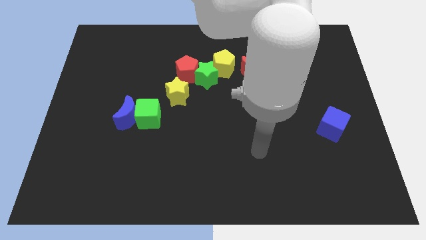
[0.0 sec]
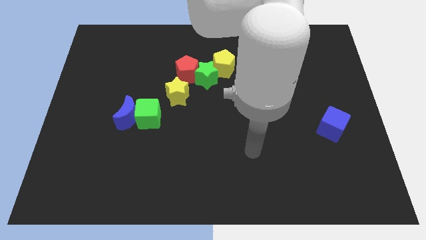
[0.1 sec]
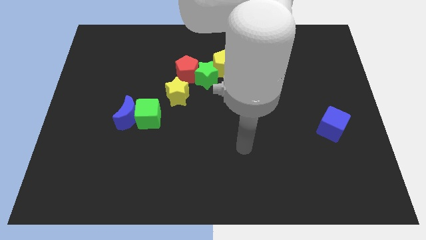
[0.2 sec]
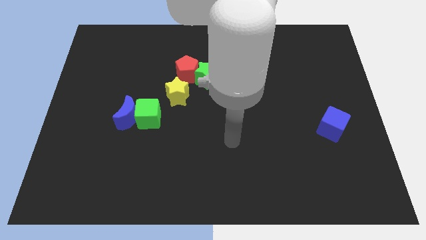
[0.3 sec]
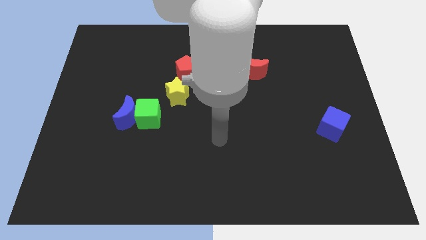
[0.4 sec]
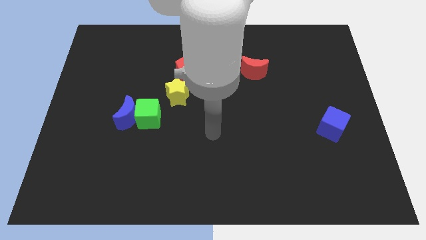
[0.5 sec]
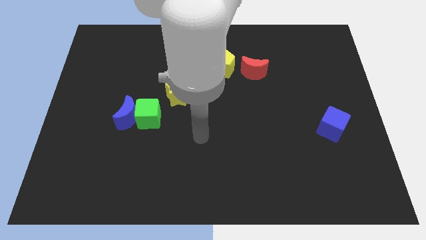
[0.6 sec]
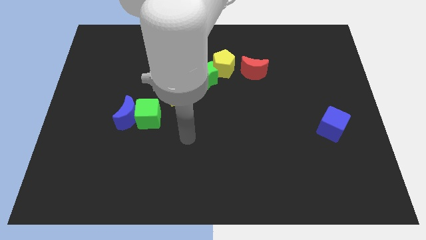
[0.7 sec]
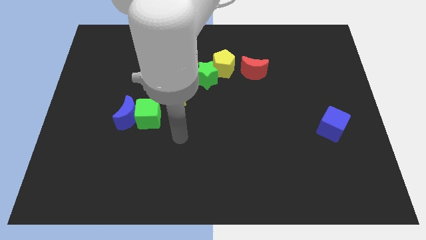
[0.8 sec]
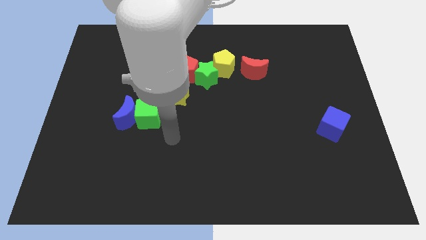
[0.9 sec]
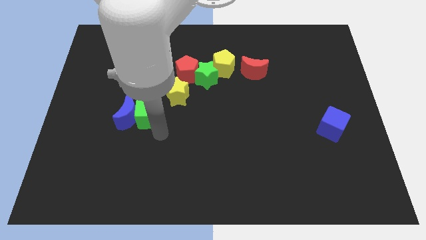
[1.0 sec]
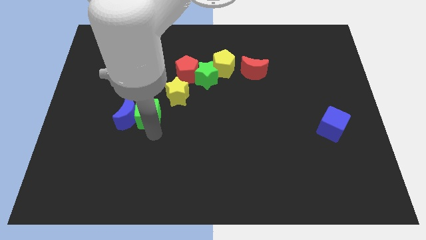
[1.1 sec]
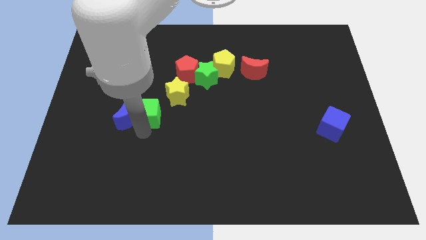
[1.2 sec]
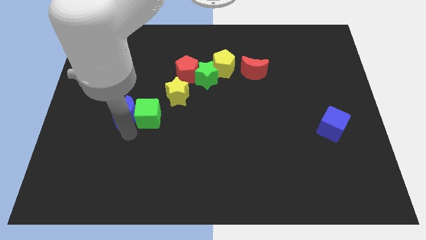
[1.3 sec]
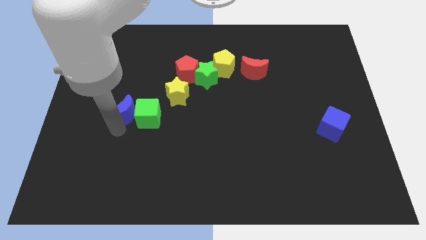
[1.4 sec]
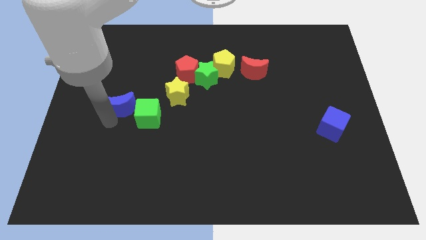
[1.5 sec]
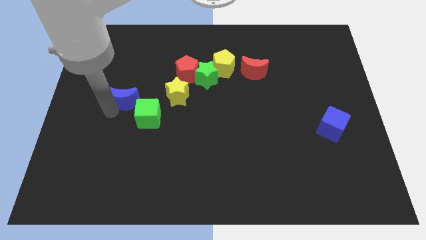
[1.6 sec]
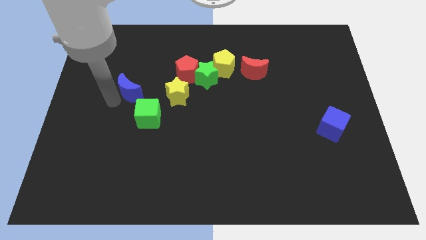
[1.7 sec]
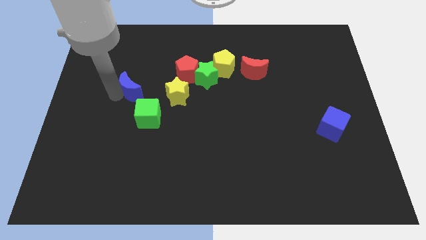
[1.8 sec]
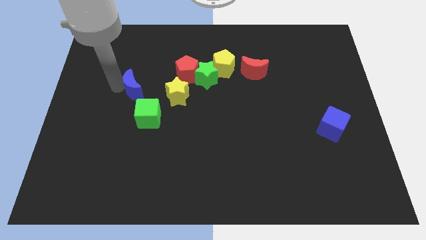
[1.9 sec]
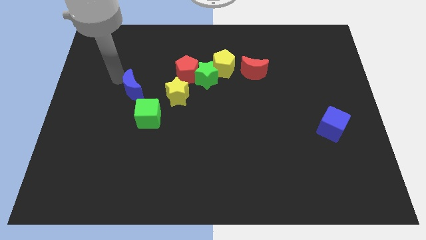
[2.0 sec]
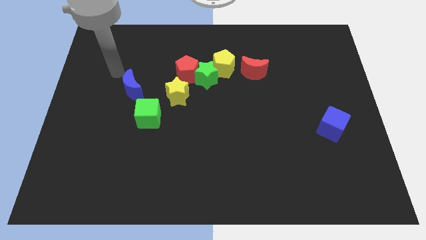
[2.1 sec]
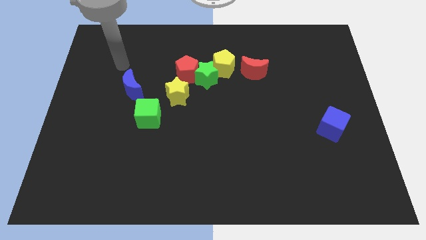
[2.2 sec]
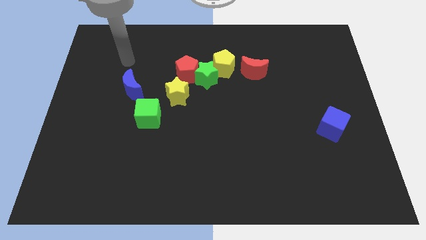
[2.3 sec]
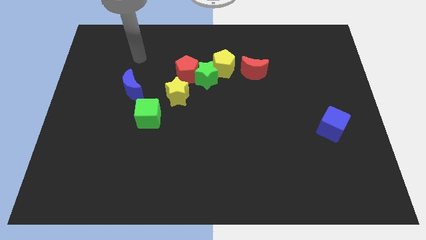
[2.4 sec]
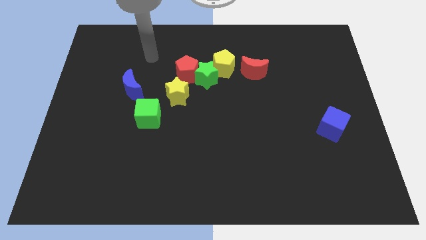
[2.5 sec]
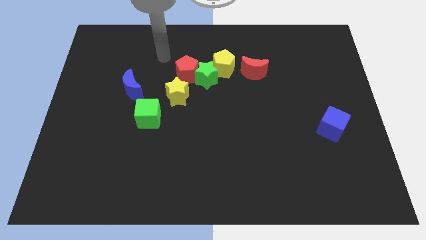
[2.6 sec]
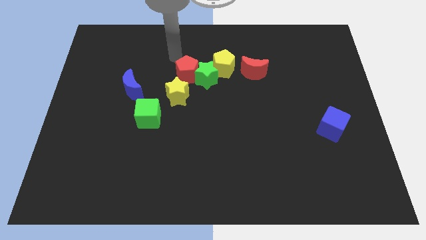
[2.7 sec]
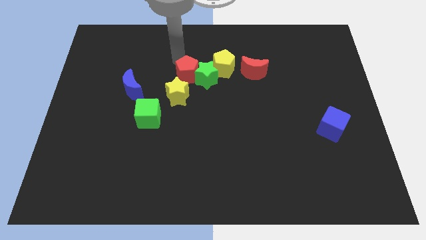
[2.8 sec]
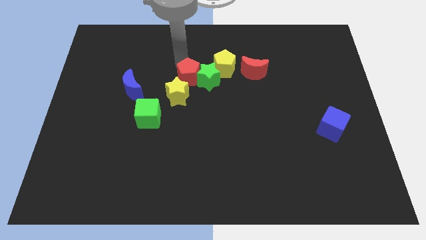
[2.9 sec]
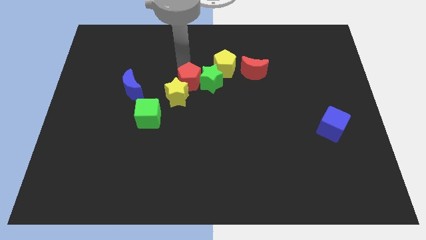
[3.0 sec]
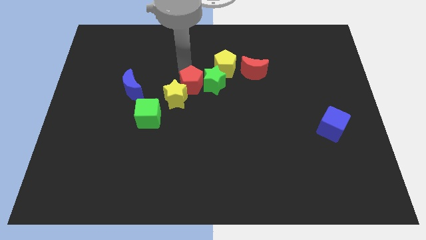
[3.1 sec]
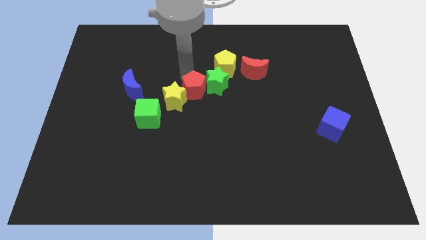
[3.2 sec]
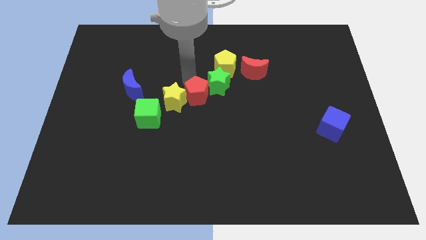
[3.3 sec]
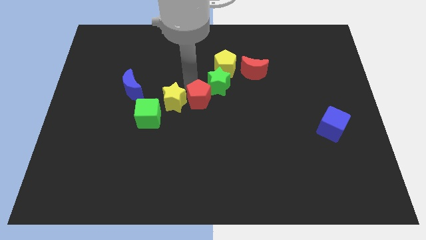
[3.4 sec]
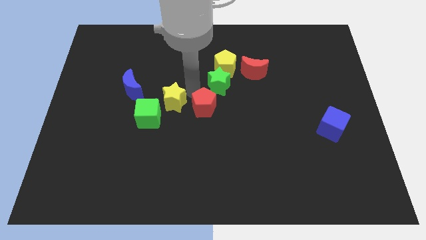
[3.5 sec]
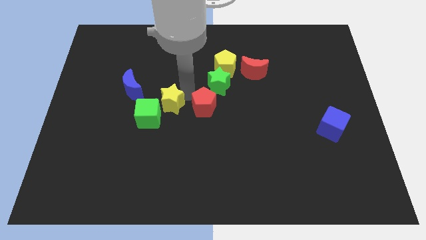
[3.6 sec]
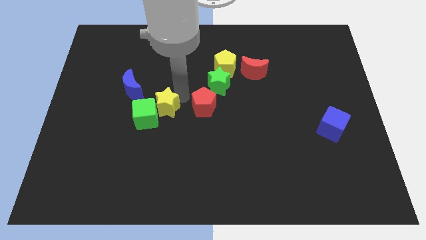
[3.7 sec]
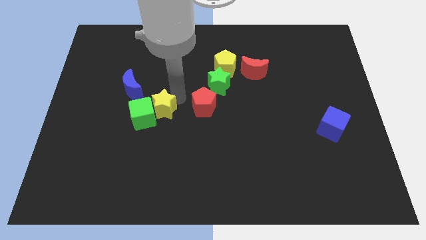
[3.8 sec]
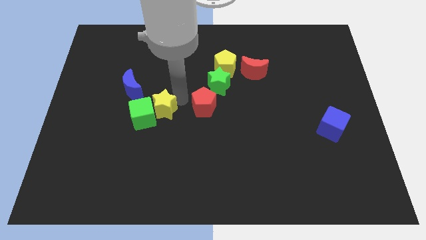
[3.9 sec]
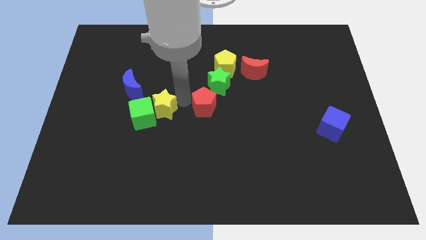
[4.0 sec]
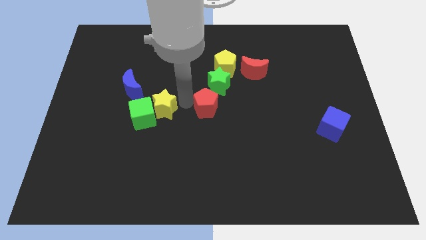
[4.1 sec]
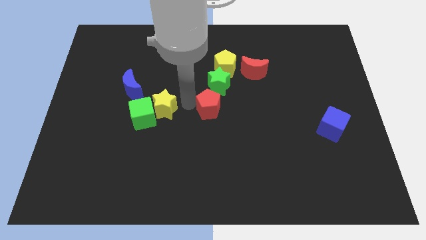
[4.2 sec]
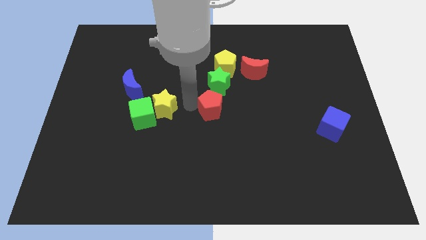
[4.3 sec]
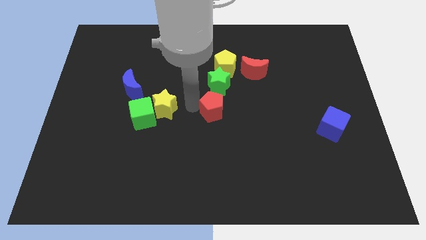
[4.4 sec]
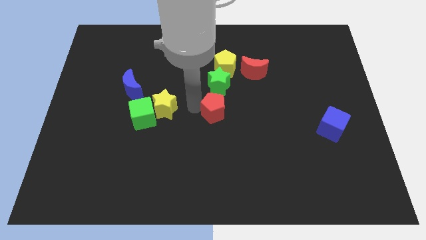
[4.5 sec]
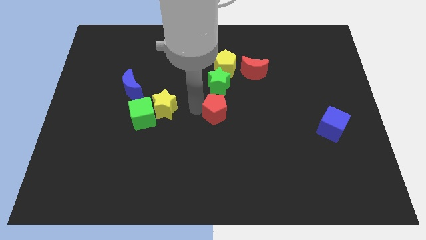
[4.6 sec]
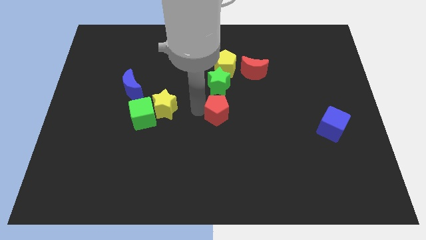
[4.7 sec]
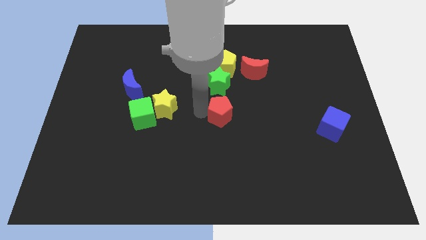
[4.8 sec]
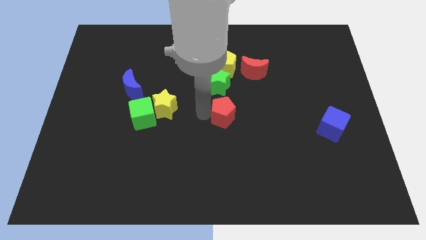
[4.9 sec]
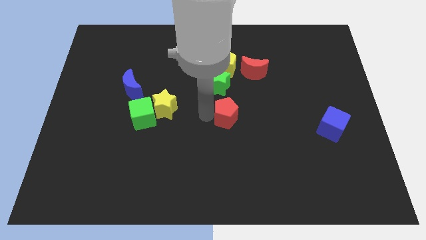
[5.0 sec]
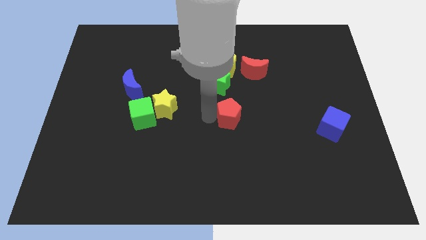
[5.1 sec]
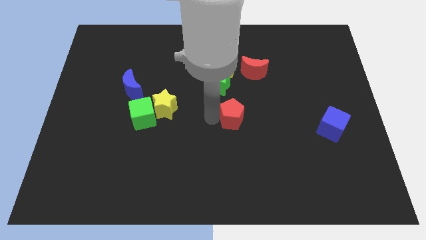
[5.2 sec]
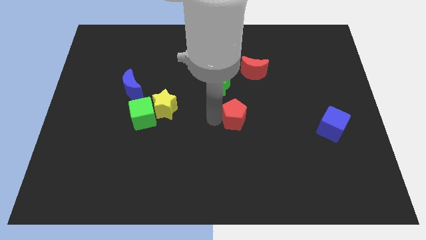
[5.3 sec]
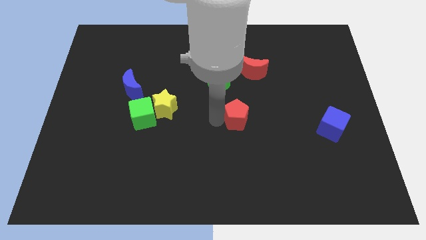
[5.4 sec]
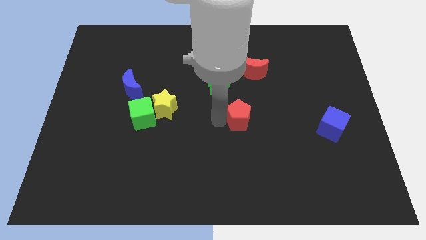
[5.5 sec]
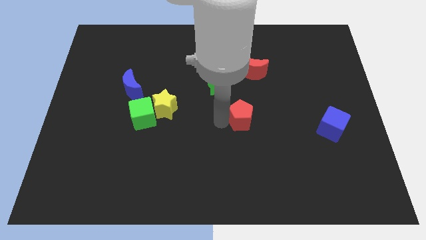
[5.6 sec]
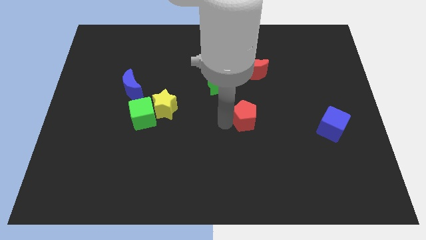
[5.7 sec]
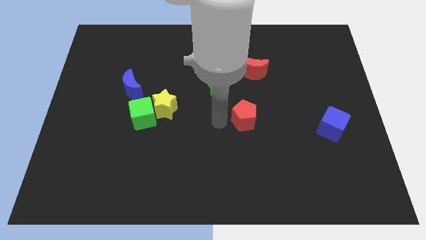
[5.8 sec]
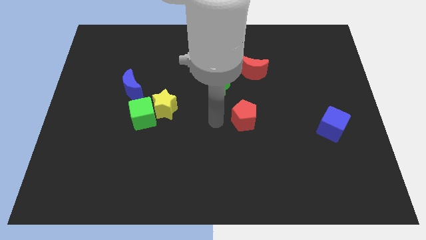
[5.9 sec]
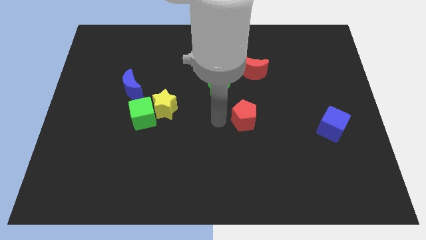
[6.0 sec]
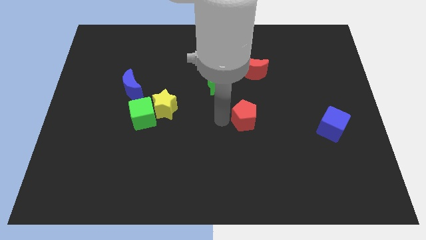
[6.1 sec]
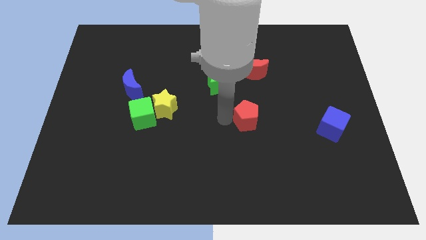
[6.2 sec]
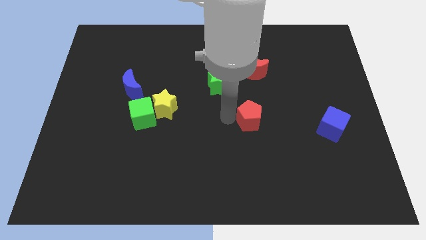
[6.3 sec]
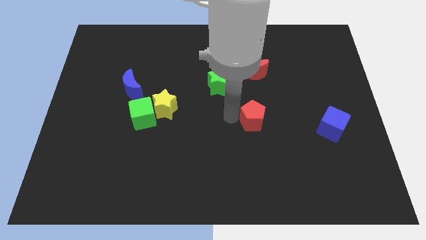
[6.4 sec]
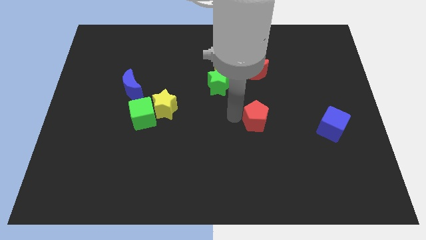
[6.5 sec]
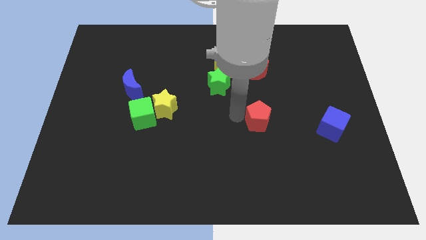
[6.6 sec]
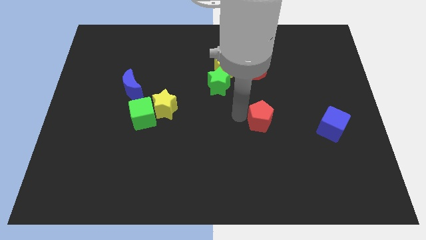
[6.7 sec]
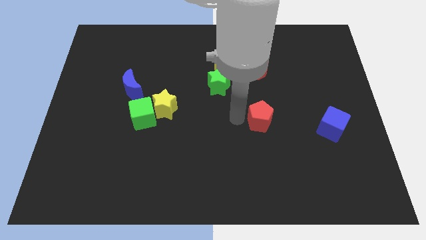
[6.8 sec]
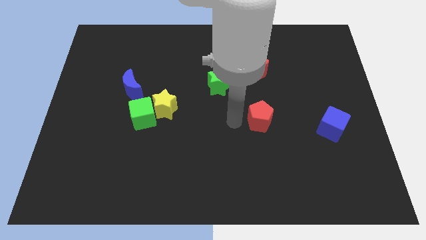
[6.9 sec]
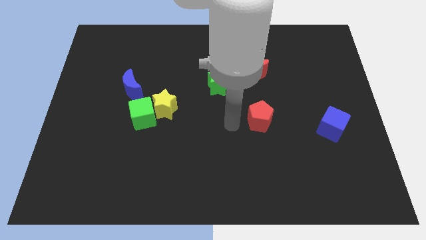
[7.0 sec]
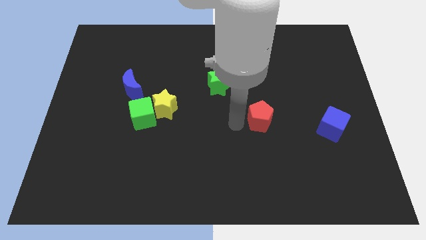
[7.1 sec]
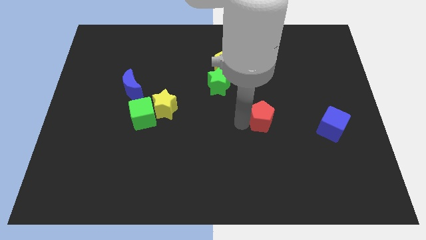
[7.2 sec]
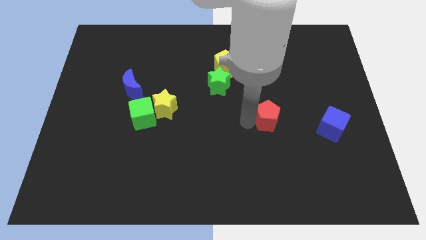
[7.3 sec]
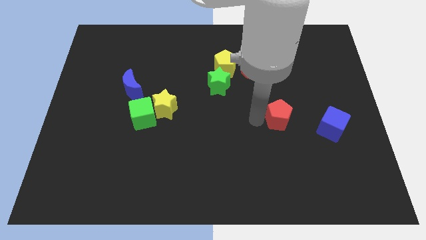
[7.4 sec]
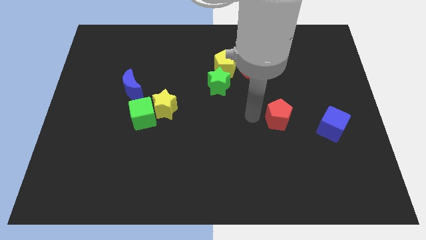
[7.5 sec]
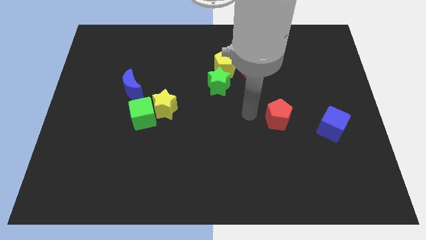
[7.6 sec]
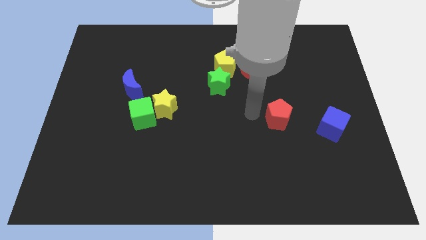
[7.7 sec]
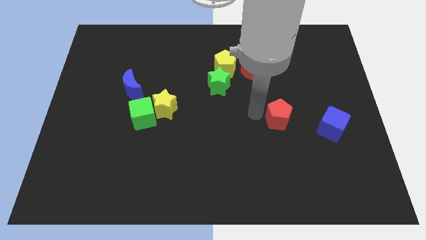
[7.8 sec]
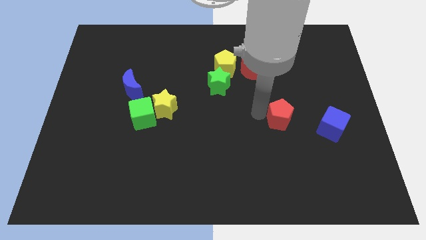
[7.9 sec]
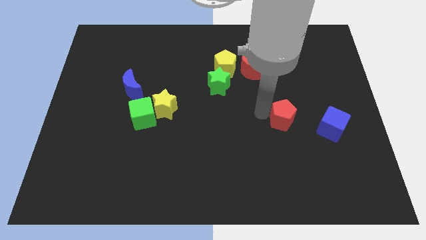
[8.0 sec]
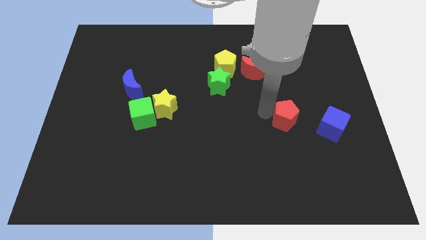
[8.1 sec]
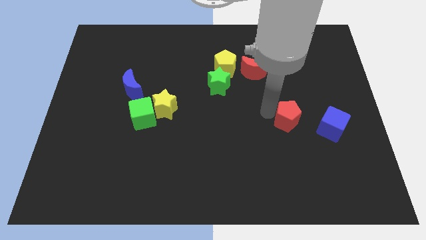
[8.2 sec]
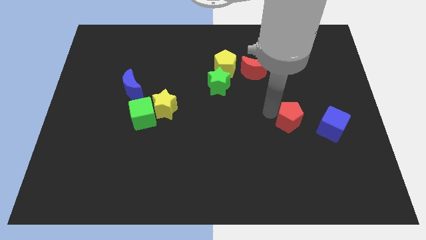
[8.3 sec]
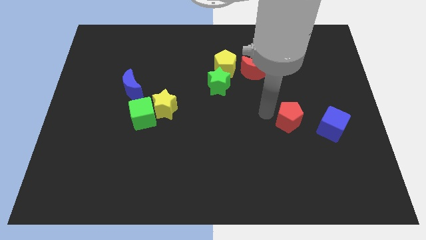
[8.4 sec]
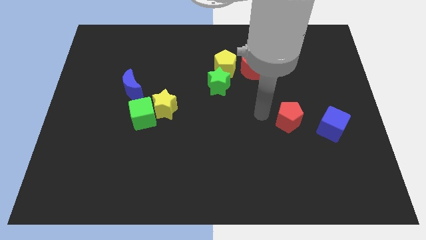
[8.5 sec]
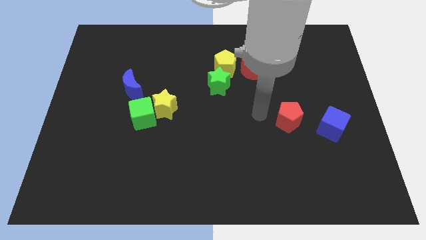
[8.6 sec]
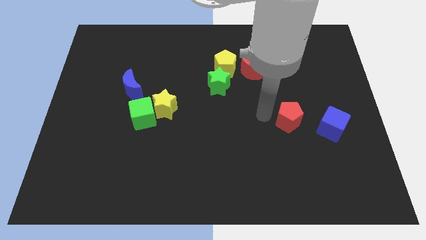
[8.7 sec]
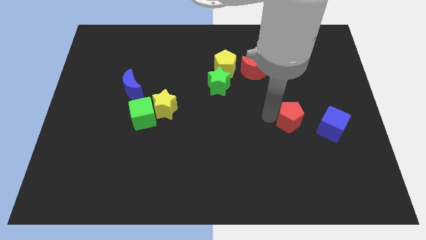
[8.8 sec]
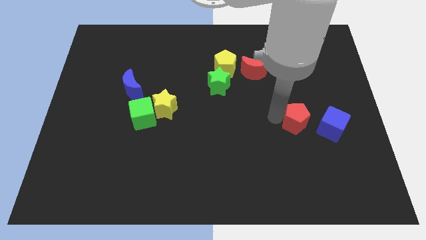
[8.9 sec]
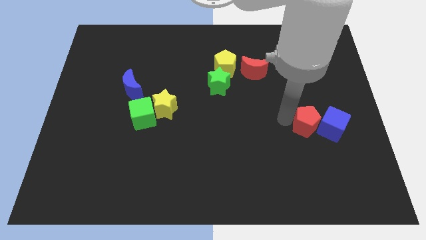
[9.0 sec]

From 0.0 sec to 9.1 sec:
put the red pentagon to the blue cube
